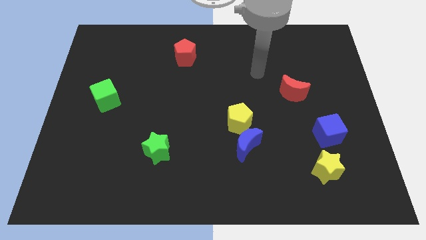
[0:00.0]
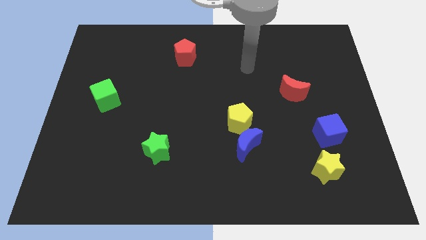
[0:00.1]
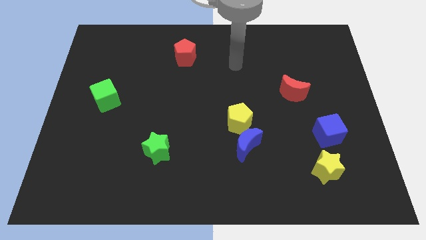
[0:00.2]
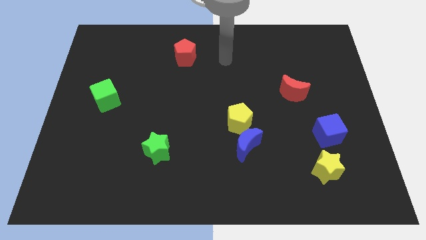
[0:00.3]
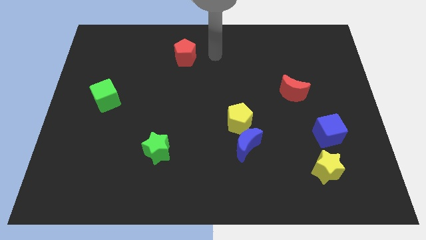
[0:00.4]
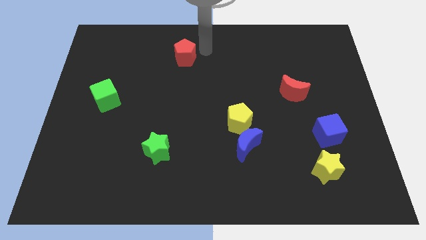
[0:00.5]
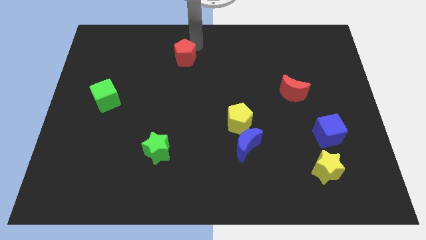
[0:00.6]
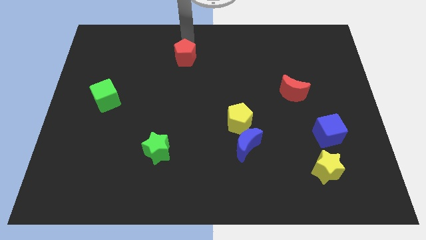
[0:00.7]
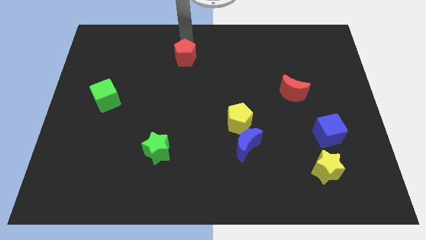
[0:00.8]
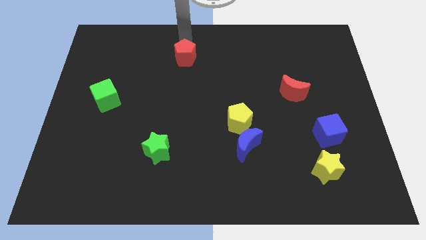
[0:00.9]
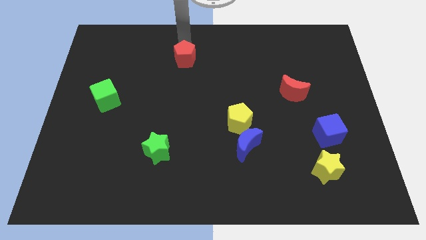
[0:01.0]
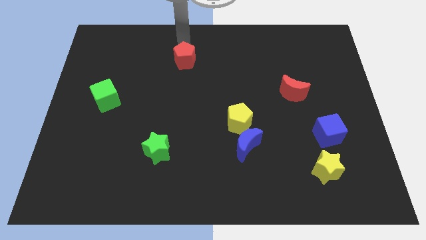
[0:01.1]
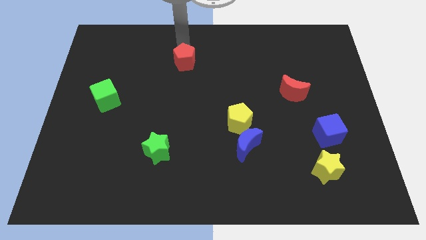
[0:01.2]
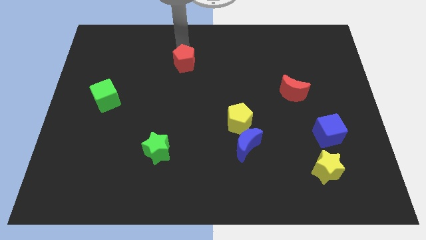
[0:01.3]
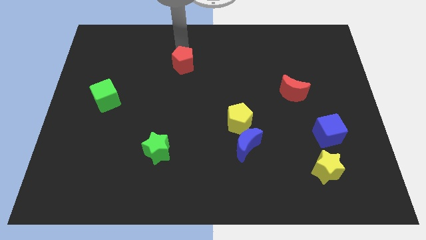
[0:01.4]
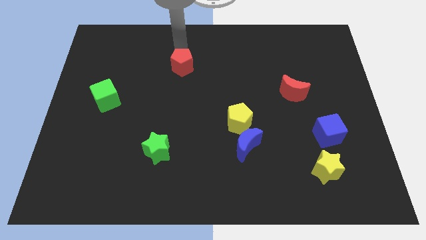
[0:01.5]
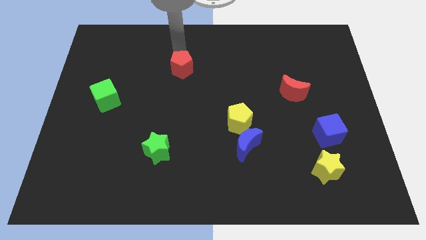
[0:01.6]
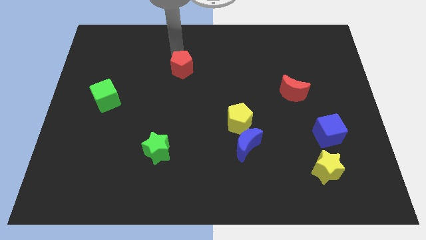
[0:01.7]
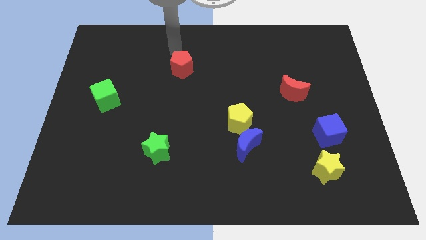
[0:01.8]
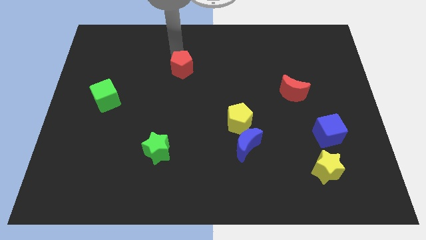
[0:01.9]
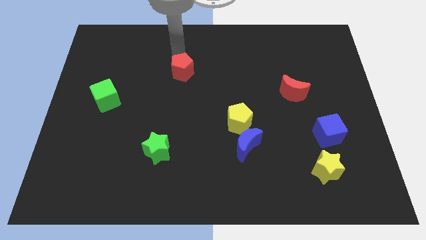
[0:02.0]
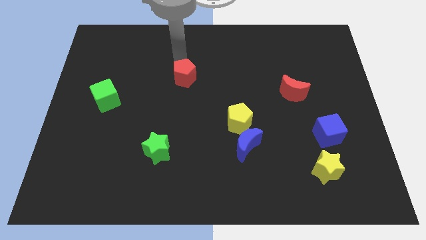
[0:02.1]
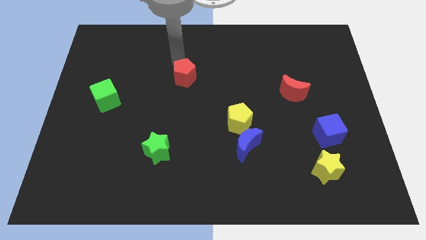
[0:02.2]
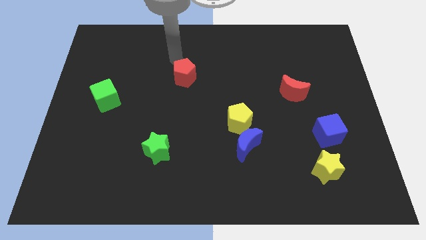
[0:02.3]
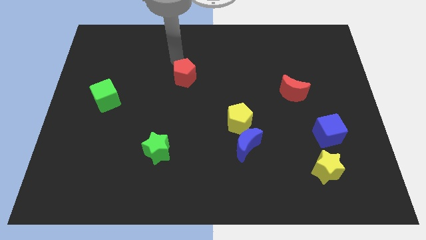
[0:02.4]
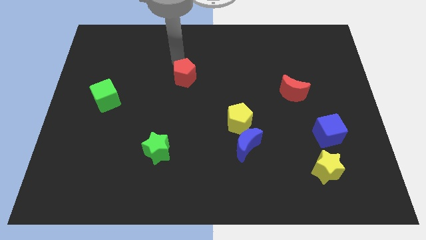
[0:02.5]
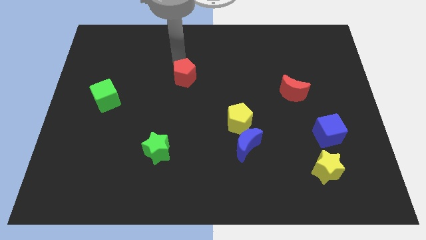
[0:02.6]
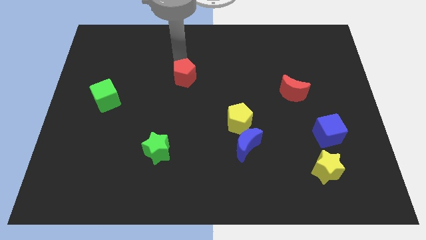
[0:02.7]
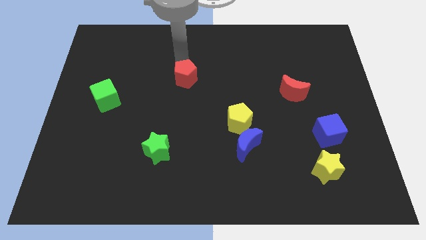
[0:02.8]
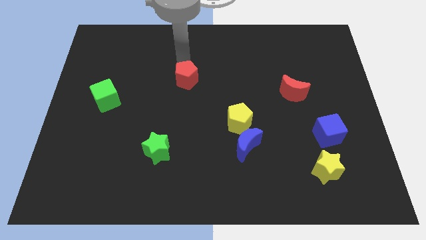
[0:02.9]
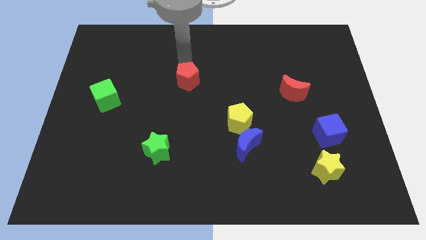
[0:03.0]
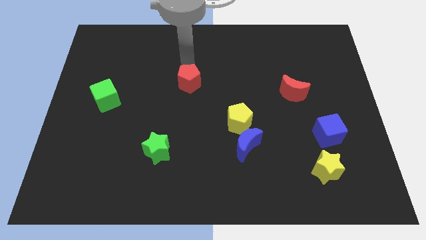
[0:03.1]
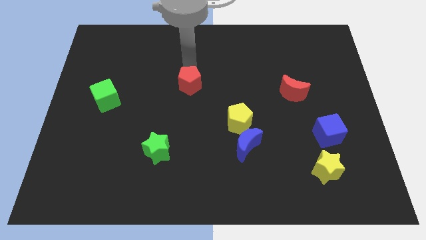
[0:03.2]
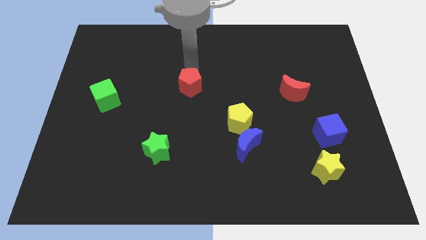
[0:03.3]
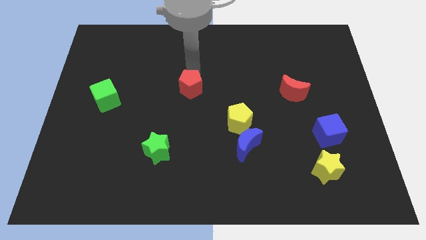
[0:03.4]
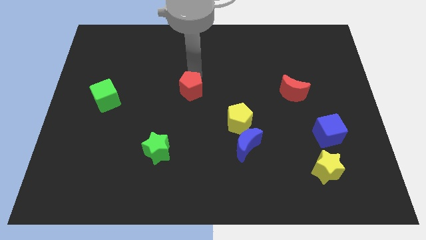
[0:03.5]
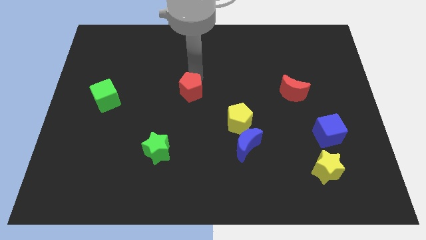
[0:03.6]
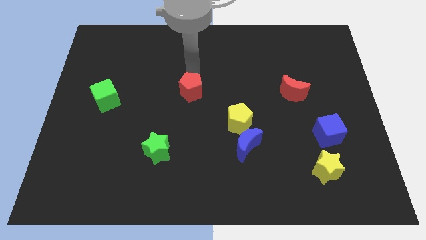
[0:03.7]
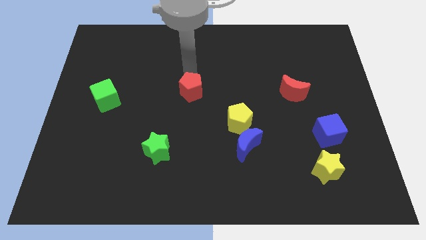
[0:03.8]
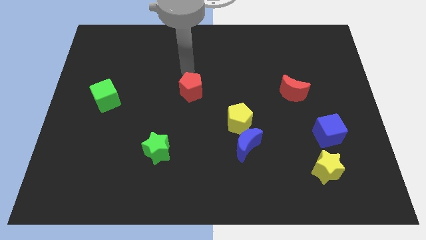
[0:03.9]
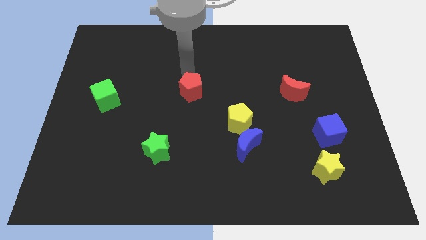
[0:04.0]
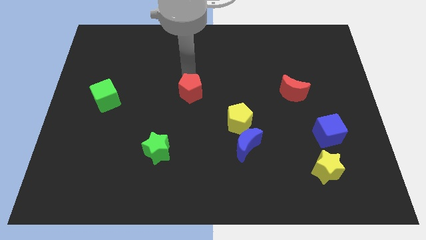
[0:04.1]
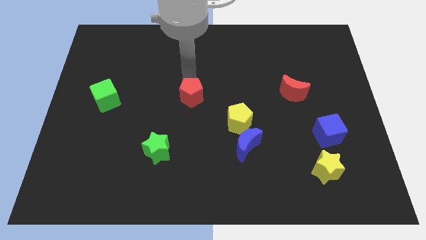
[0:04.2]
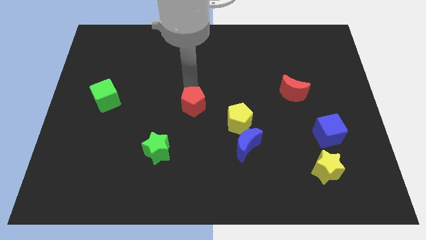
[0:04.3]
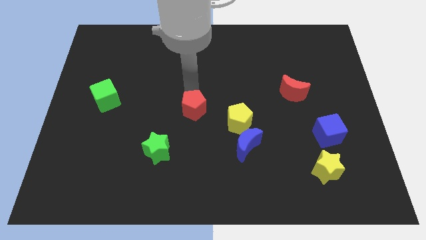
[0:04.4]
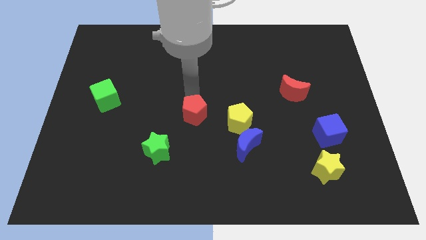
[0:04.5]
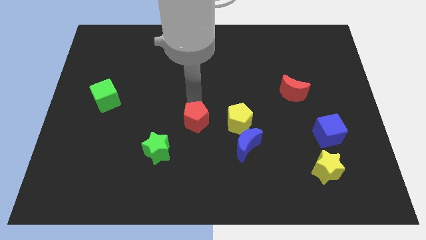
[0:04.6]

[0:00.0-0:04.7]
slide the red pentagon down

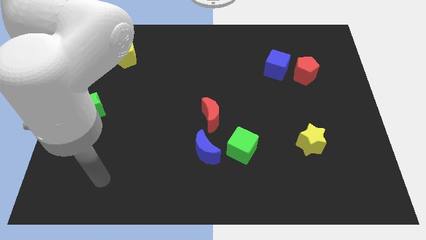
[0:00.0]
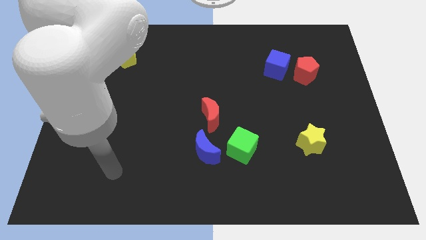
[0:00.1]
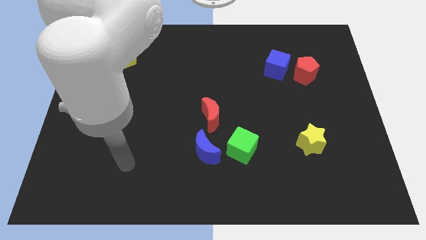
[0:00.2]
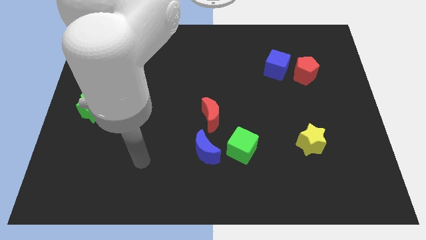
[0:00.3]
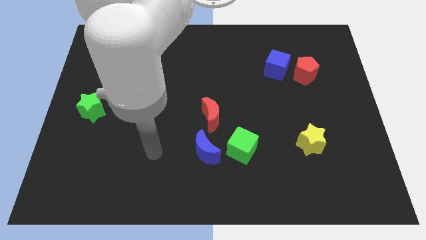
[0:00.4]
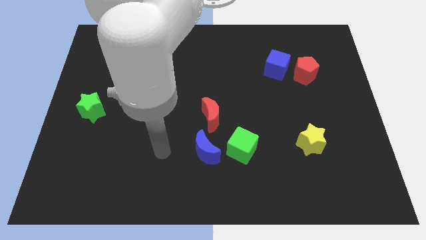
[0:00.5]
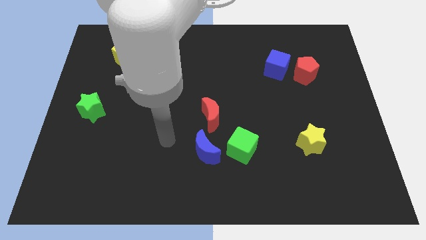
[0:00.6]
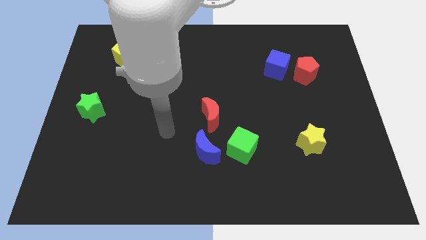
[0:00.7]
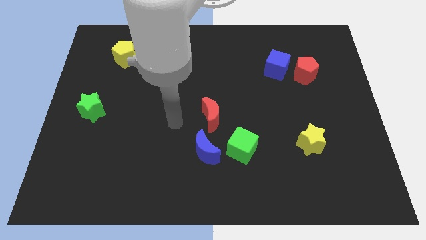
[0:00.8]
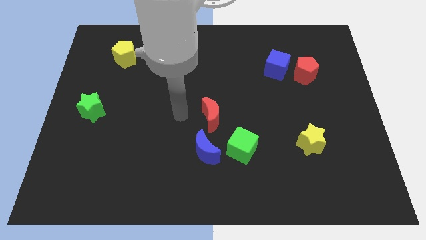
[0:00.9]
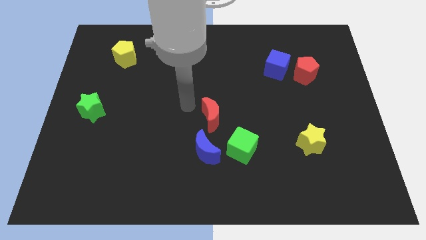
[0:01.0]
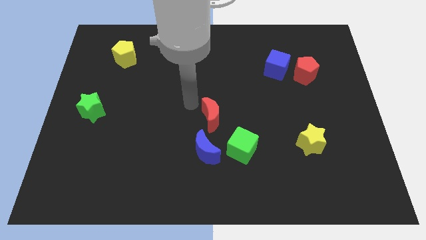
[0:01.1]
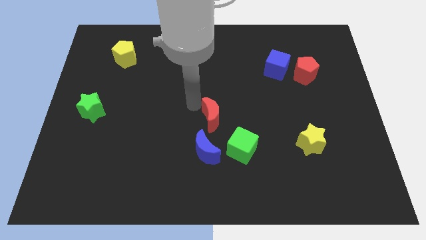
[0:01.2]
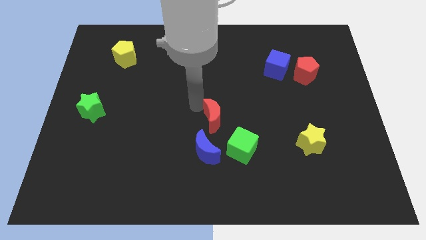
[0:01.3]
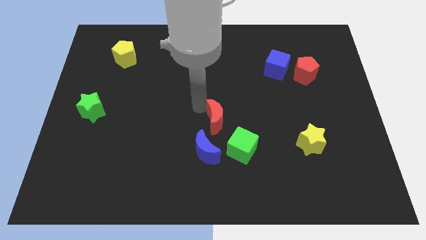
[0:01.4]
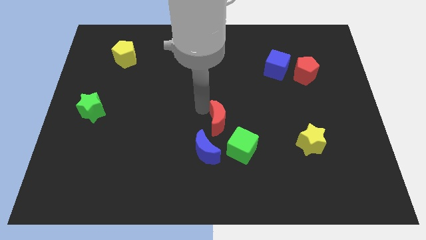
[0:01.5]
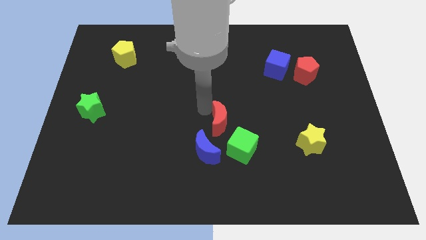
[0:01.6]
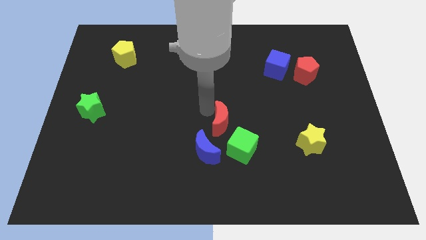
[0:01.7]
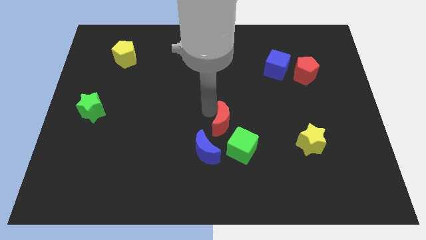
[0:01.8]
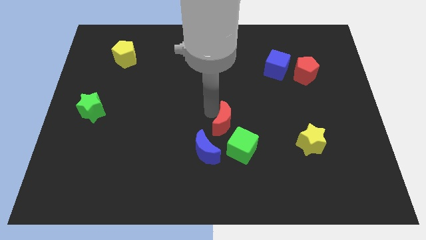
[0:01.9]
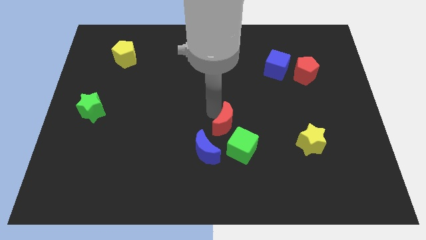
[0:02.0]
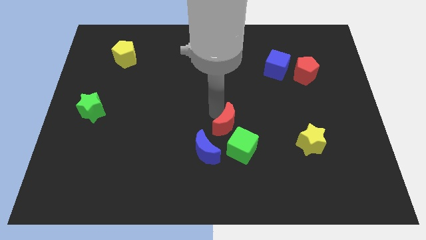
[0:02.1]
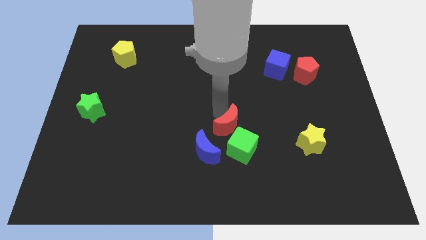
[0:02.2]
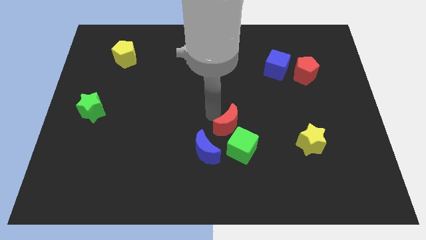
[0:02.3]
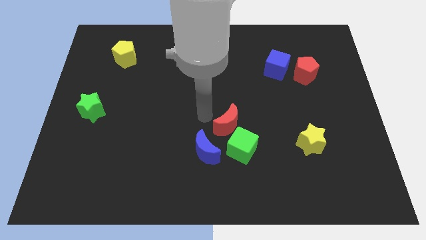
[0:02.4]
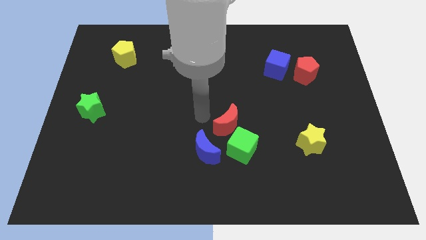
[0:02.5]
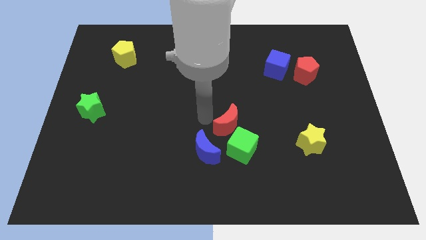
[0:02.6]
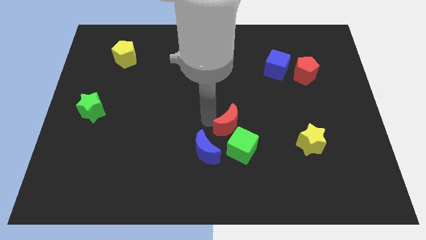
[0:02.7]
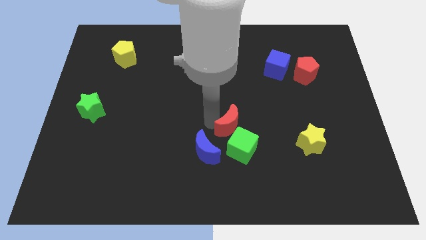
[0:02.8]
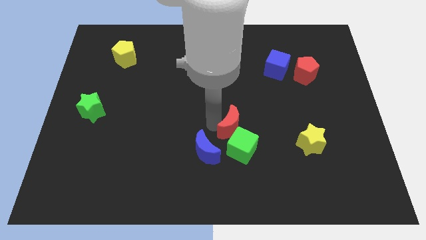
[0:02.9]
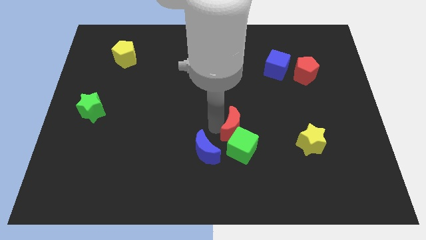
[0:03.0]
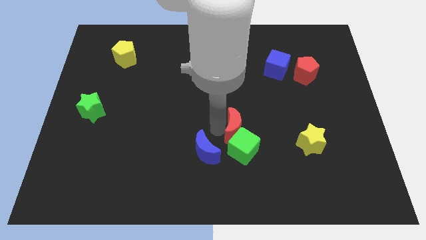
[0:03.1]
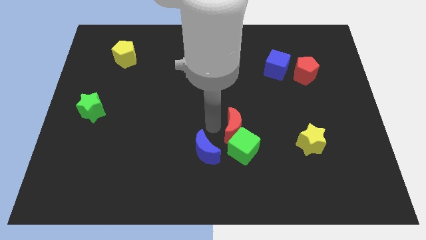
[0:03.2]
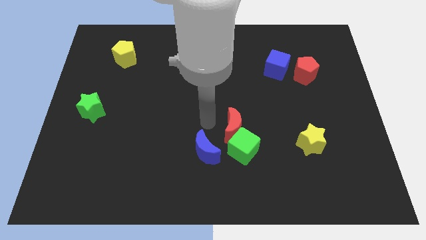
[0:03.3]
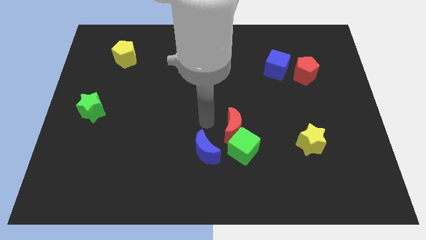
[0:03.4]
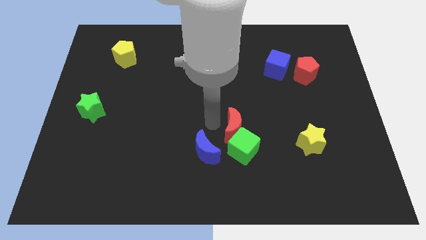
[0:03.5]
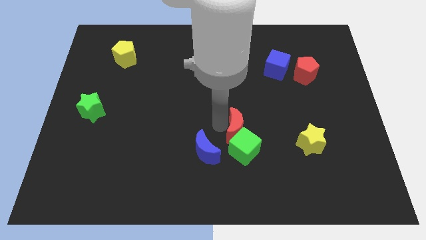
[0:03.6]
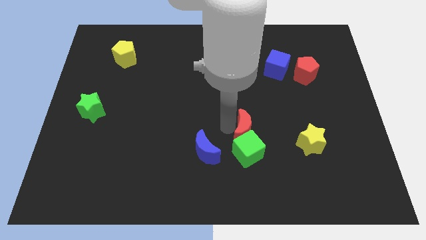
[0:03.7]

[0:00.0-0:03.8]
move the red moon a bit downwards and right diagonally
